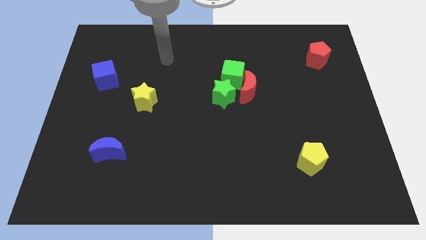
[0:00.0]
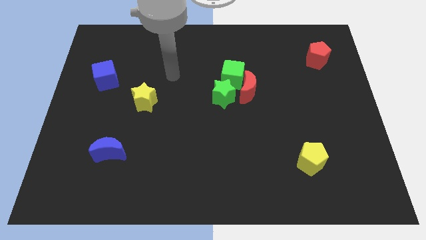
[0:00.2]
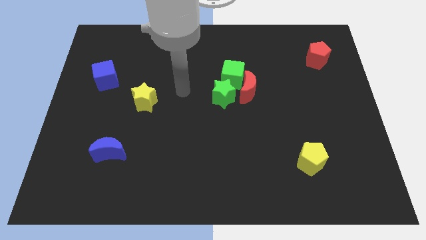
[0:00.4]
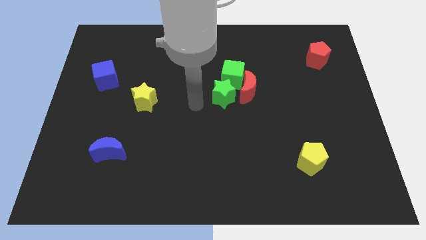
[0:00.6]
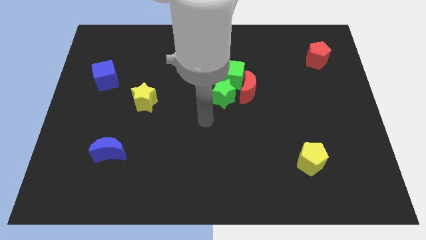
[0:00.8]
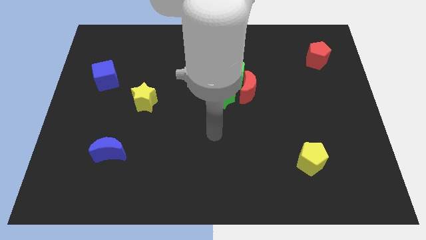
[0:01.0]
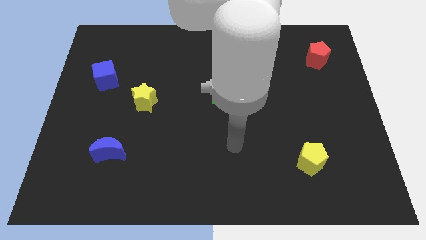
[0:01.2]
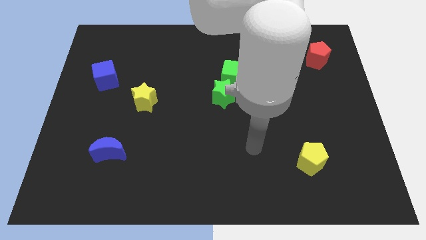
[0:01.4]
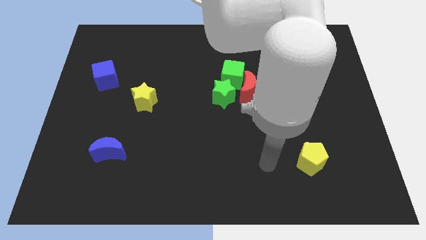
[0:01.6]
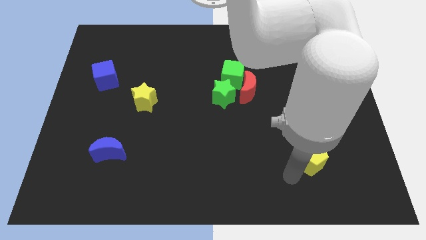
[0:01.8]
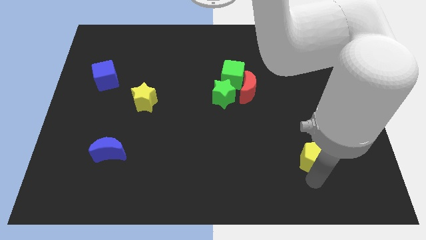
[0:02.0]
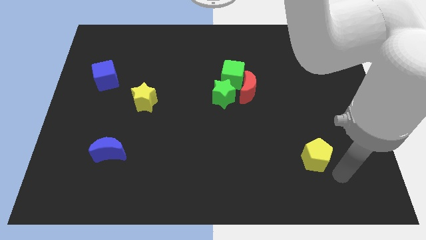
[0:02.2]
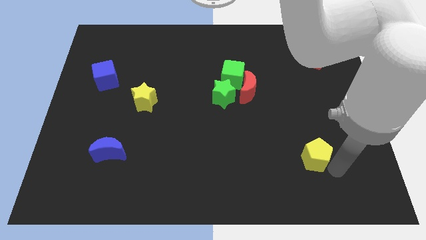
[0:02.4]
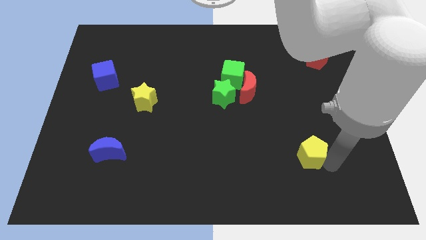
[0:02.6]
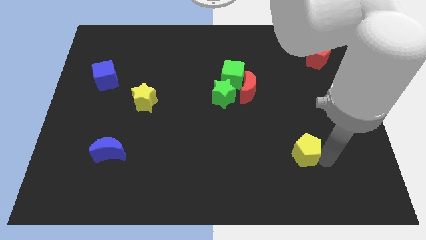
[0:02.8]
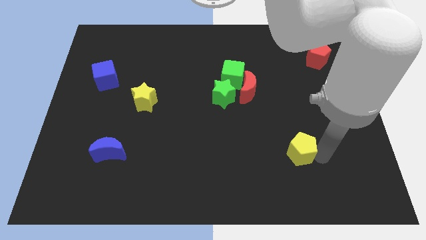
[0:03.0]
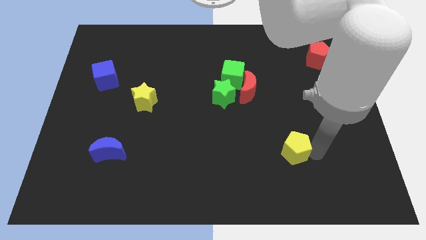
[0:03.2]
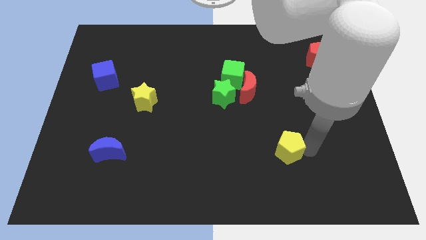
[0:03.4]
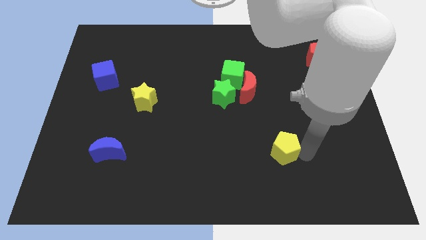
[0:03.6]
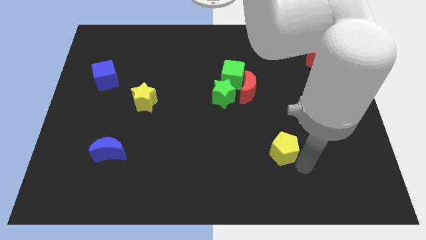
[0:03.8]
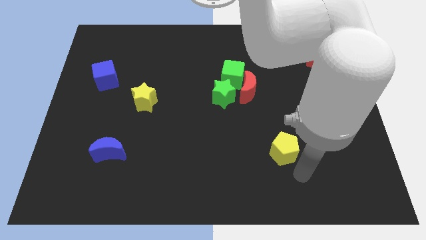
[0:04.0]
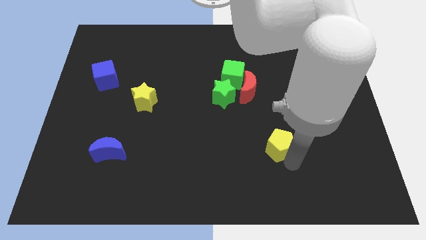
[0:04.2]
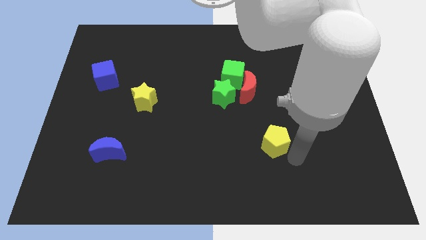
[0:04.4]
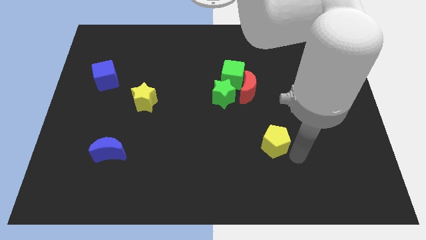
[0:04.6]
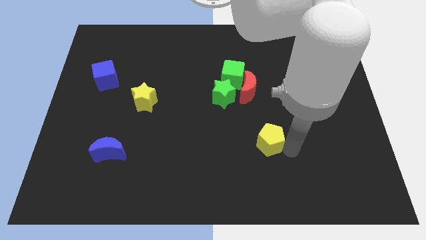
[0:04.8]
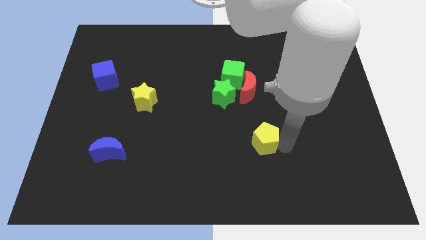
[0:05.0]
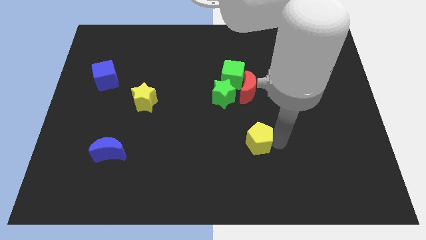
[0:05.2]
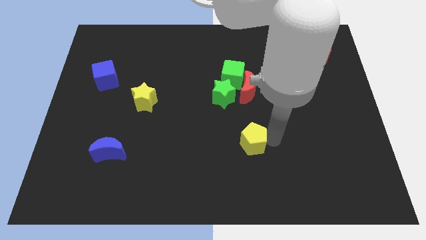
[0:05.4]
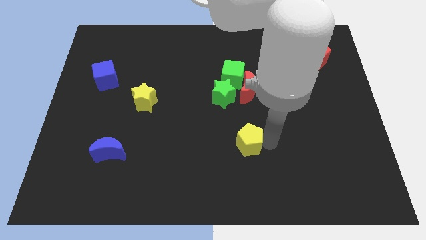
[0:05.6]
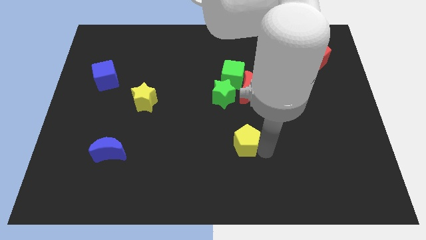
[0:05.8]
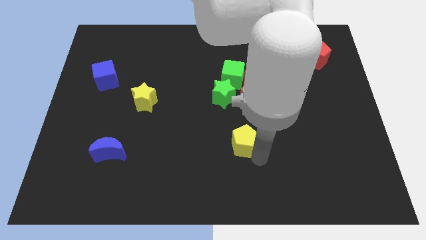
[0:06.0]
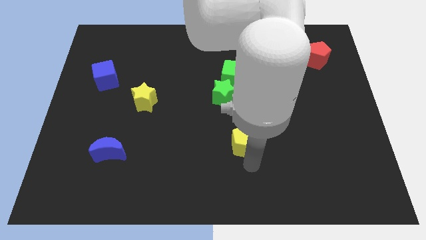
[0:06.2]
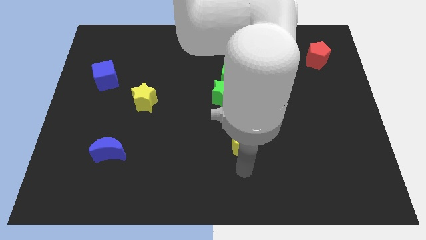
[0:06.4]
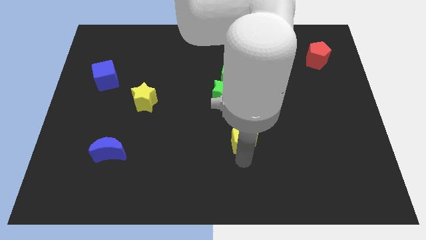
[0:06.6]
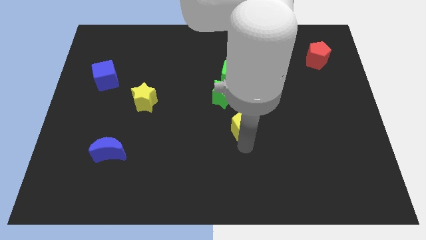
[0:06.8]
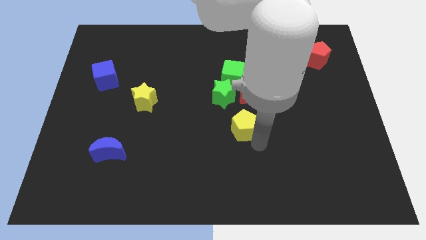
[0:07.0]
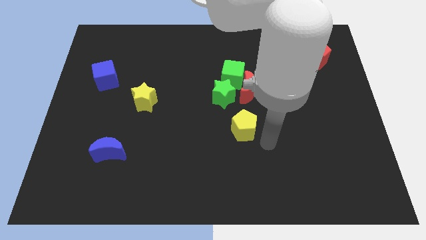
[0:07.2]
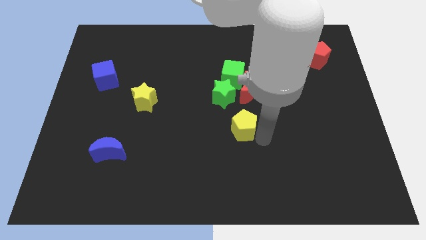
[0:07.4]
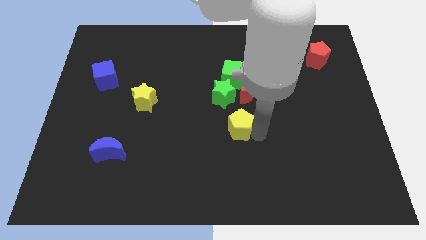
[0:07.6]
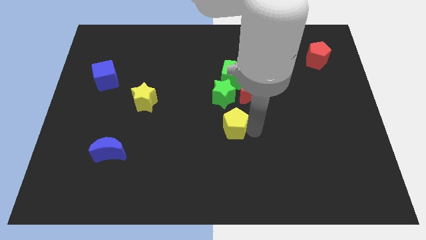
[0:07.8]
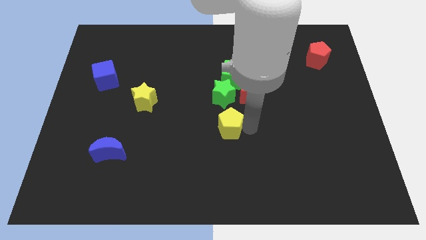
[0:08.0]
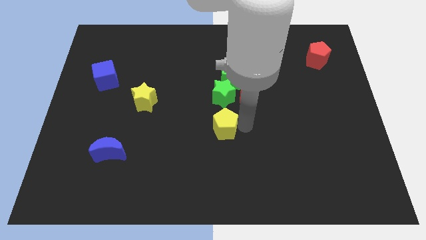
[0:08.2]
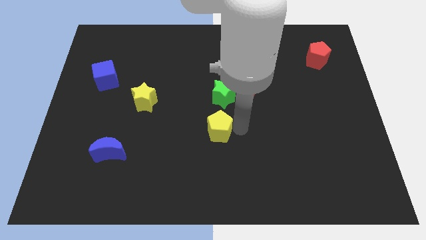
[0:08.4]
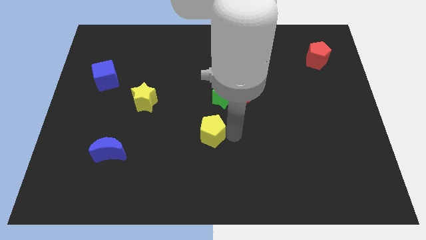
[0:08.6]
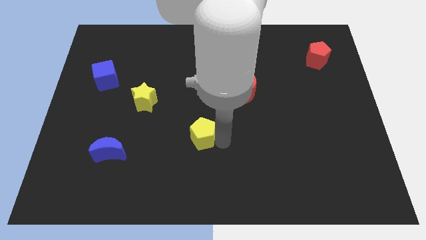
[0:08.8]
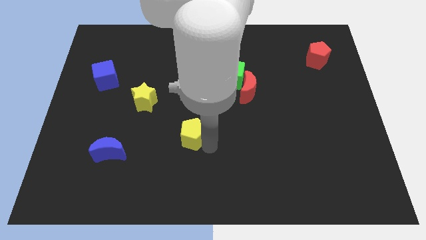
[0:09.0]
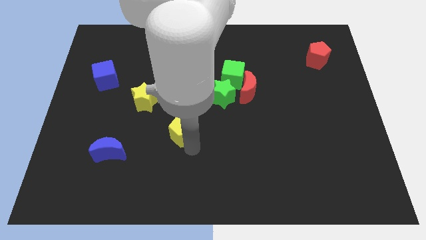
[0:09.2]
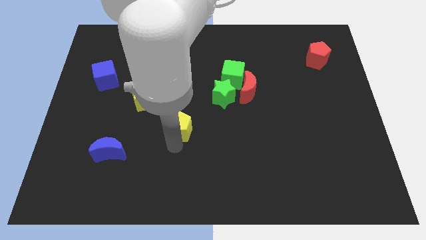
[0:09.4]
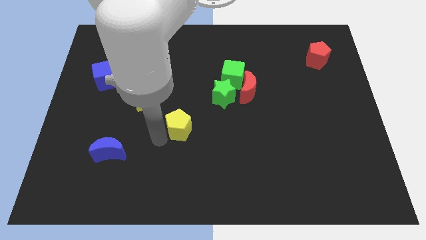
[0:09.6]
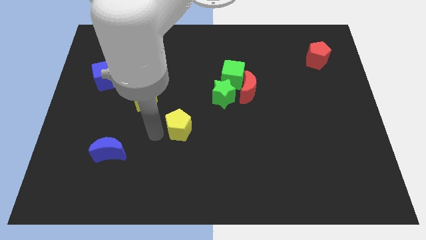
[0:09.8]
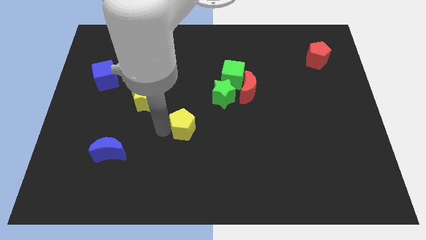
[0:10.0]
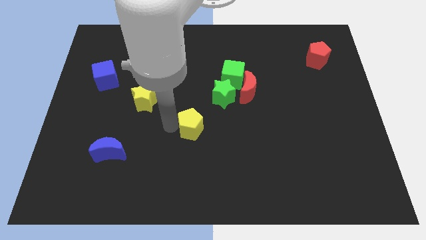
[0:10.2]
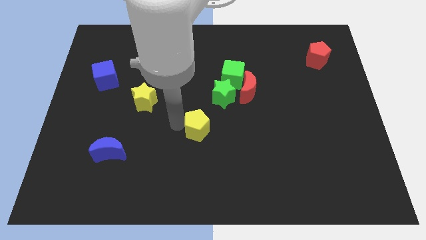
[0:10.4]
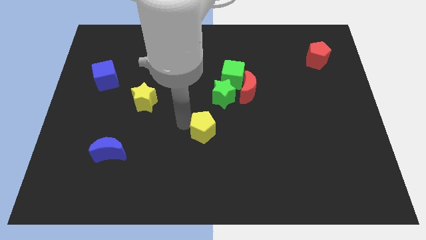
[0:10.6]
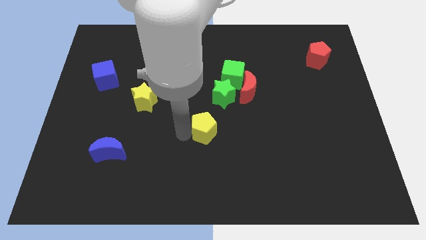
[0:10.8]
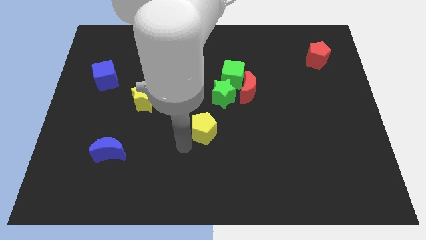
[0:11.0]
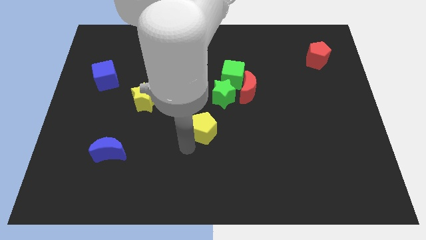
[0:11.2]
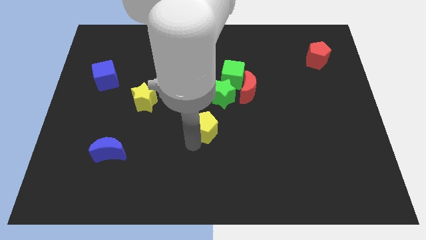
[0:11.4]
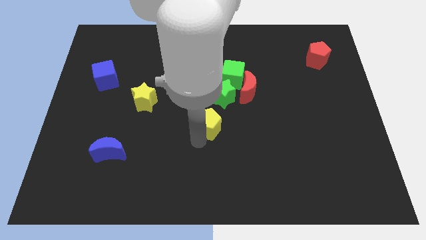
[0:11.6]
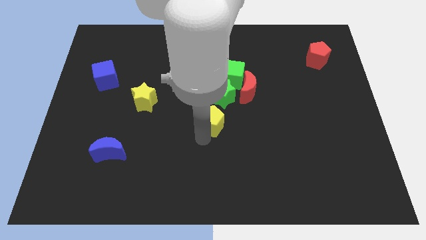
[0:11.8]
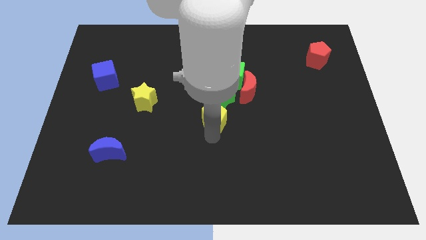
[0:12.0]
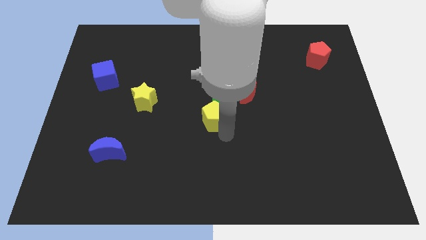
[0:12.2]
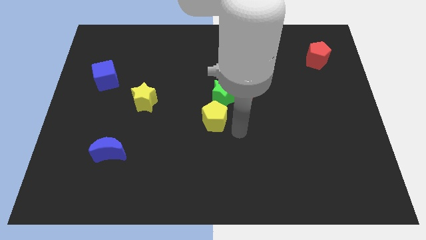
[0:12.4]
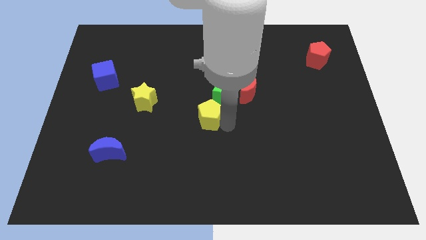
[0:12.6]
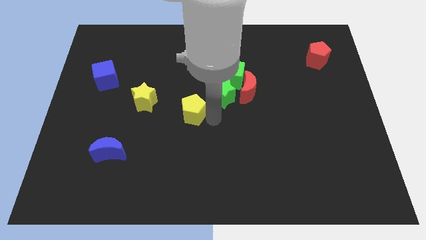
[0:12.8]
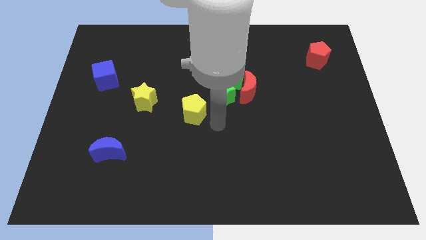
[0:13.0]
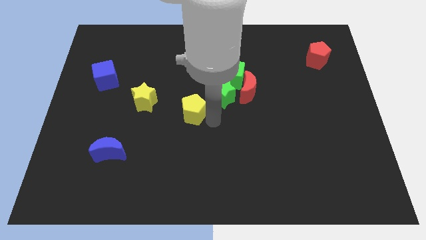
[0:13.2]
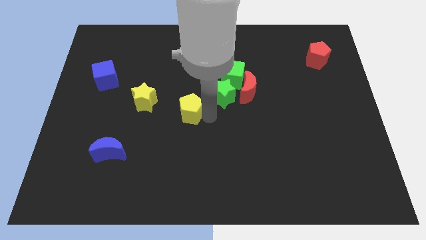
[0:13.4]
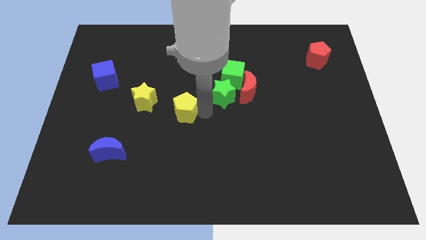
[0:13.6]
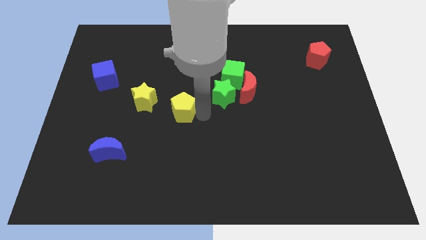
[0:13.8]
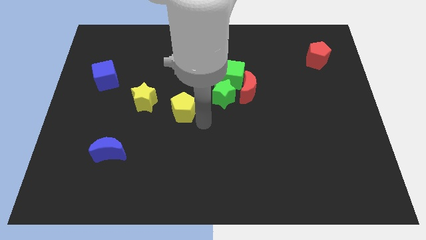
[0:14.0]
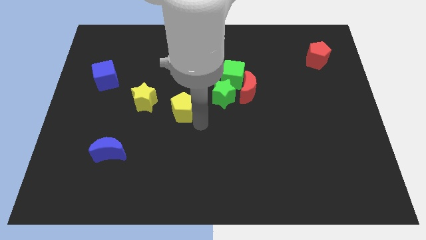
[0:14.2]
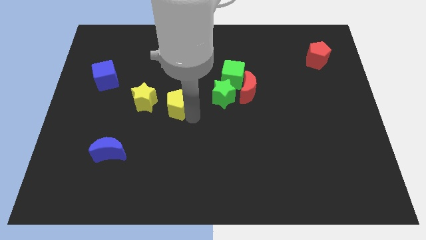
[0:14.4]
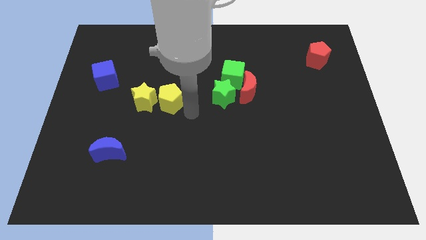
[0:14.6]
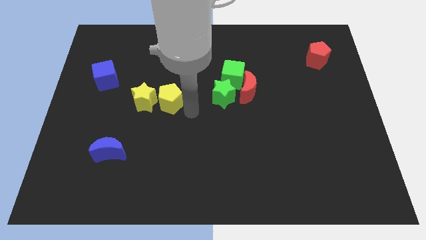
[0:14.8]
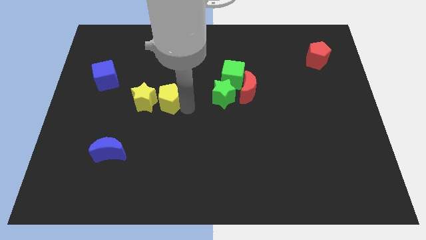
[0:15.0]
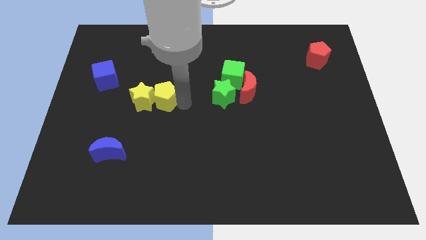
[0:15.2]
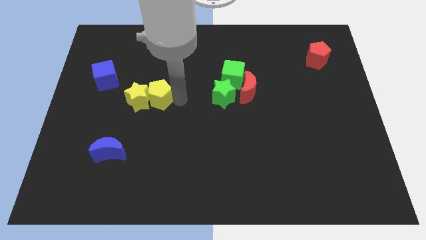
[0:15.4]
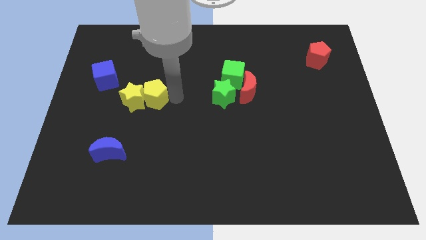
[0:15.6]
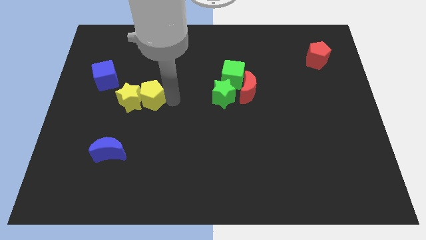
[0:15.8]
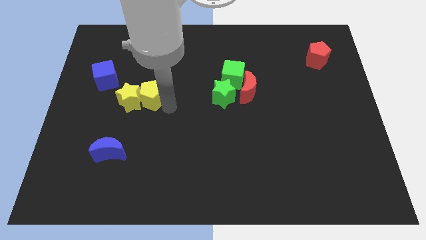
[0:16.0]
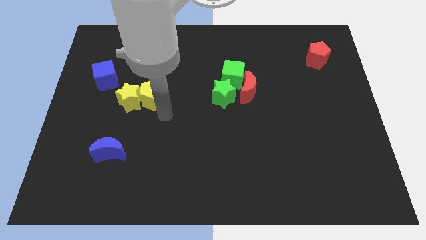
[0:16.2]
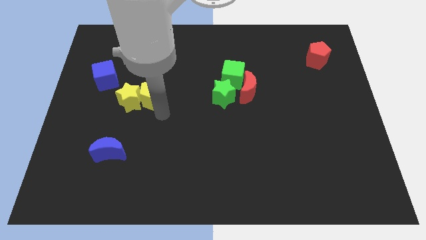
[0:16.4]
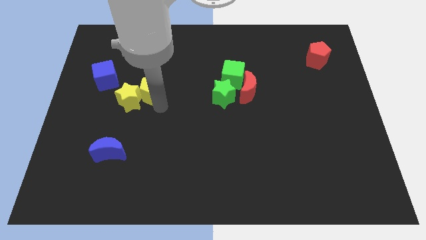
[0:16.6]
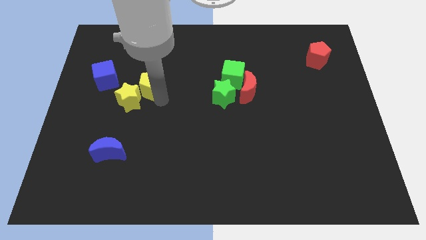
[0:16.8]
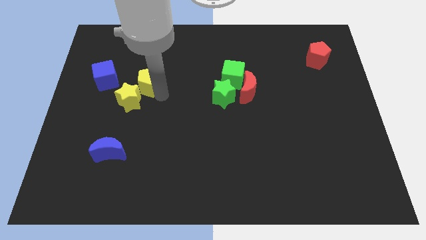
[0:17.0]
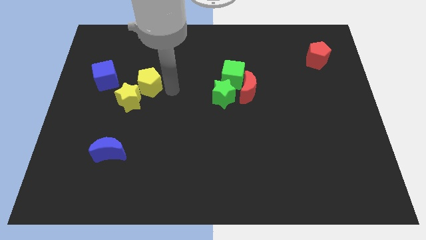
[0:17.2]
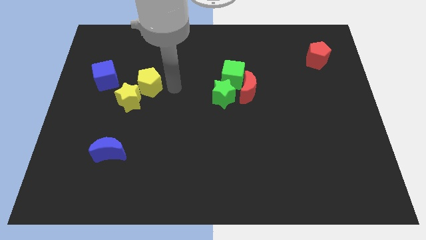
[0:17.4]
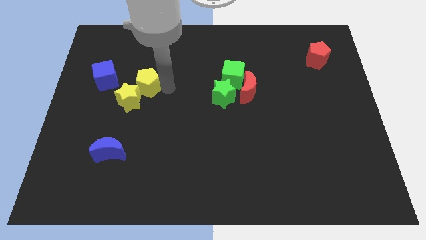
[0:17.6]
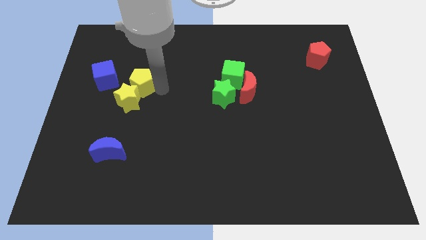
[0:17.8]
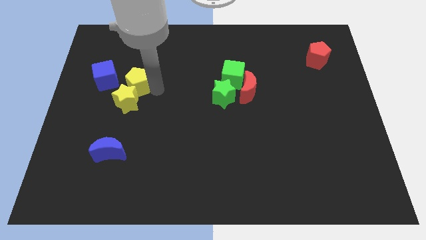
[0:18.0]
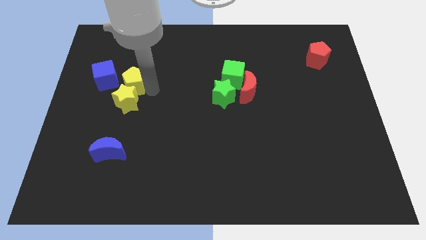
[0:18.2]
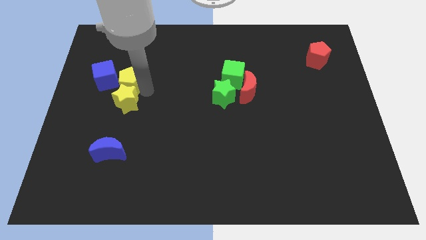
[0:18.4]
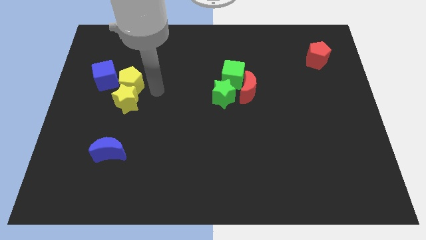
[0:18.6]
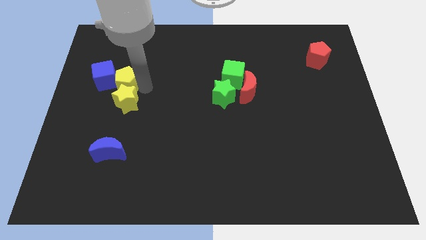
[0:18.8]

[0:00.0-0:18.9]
move the yellow pentagon to the blue cube
